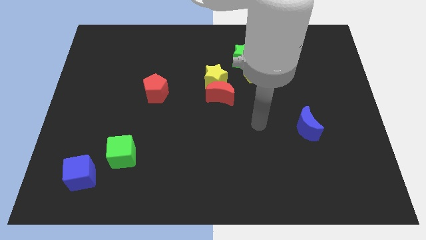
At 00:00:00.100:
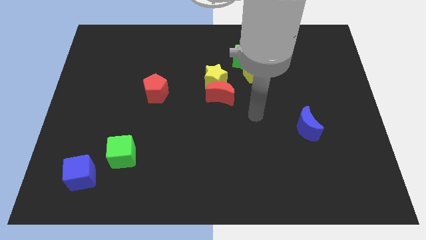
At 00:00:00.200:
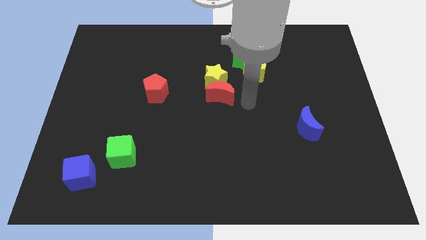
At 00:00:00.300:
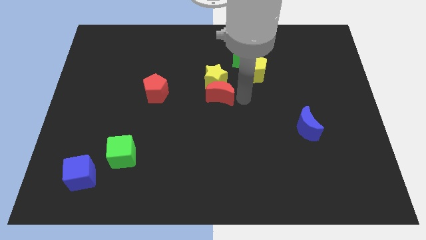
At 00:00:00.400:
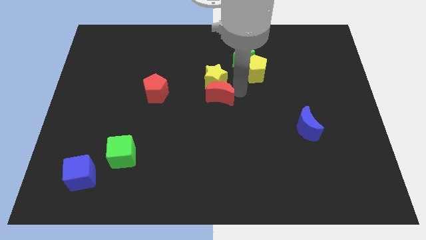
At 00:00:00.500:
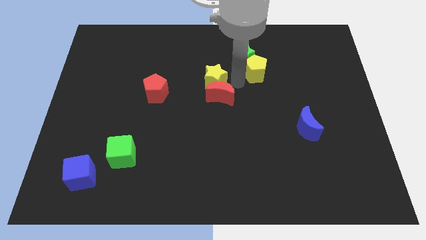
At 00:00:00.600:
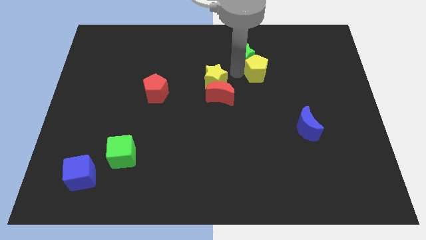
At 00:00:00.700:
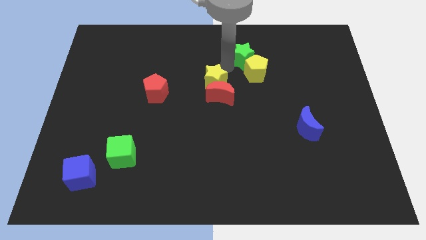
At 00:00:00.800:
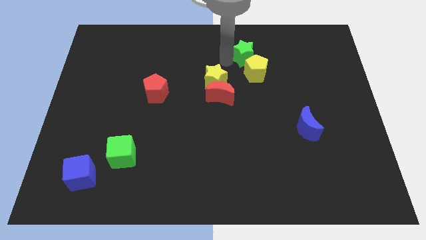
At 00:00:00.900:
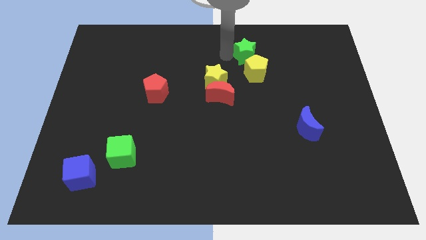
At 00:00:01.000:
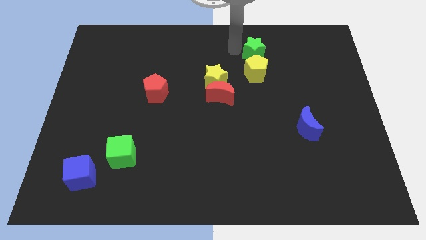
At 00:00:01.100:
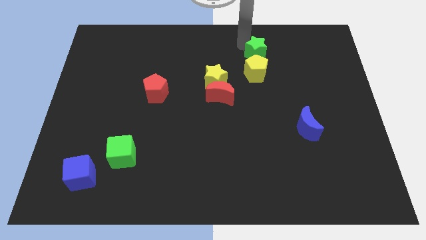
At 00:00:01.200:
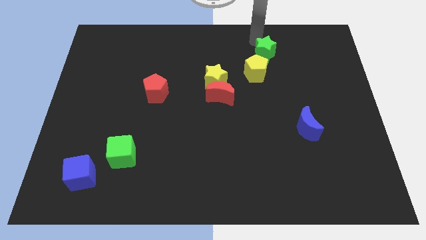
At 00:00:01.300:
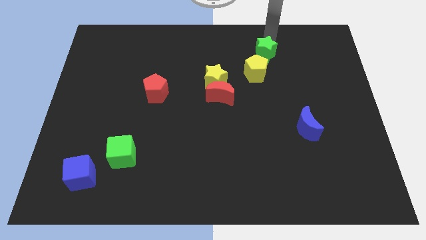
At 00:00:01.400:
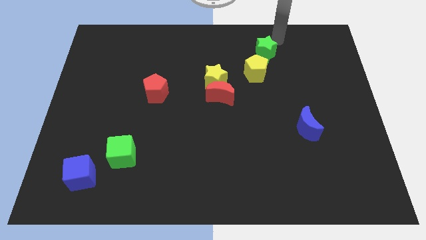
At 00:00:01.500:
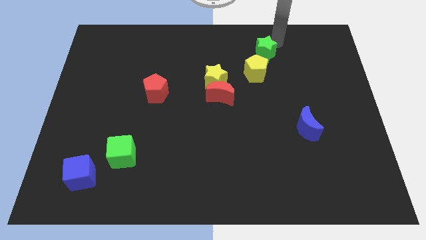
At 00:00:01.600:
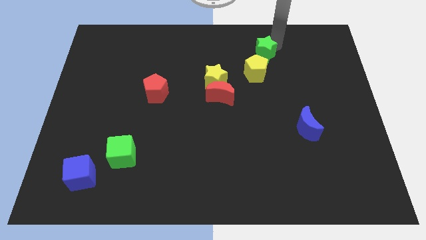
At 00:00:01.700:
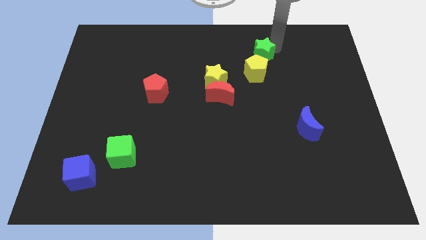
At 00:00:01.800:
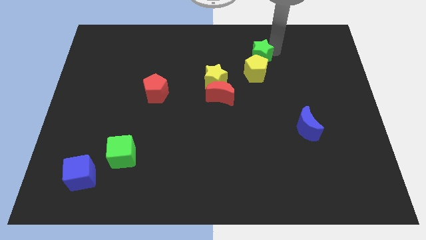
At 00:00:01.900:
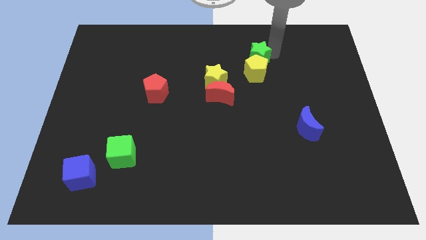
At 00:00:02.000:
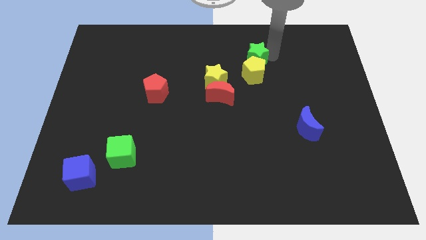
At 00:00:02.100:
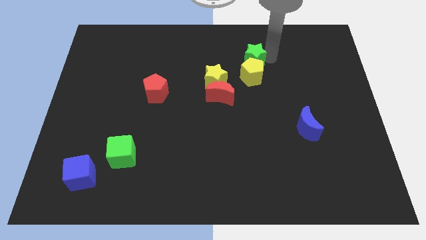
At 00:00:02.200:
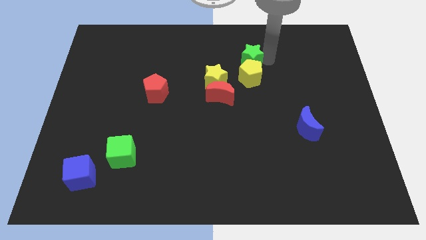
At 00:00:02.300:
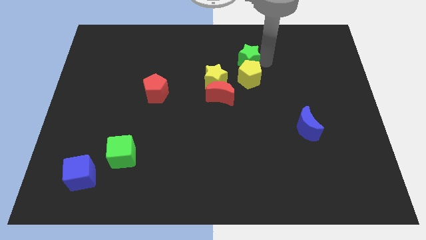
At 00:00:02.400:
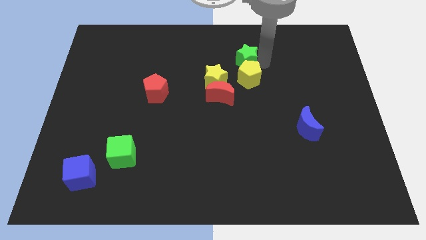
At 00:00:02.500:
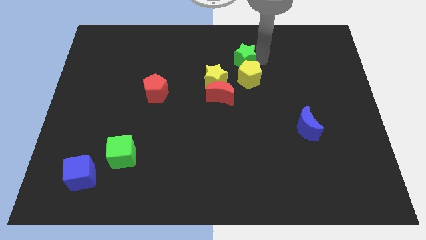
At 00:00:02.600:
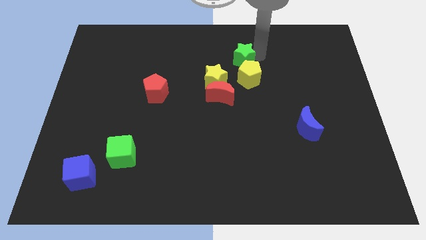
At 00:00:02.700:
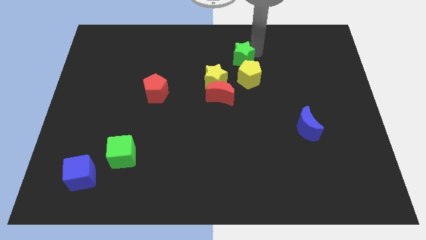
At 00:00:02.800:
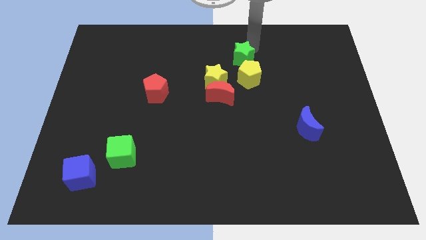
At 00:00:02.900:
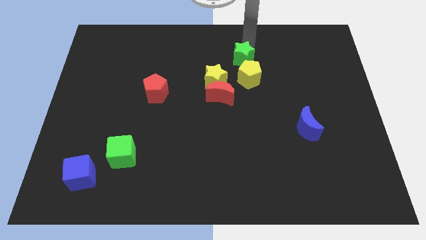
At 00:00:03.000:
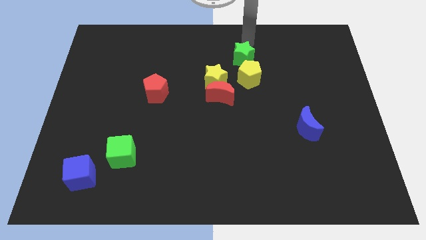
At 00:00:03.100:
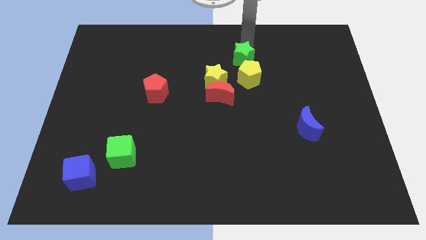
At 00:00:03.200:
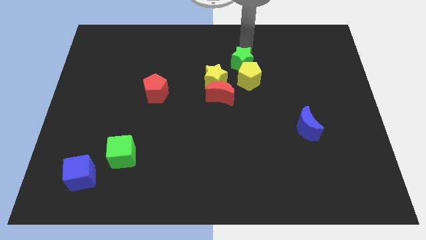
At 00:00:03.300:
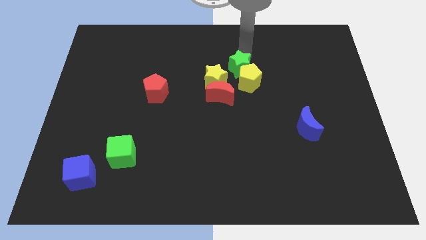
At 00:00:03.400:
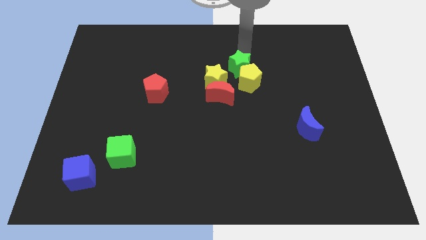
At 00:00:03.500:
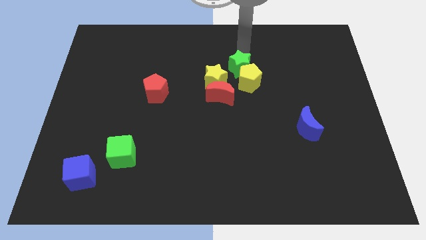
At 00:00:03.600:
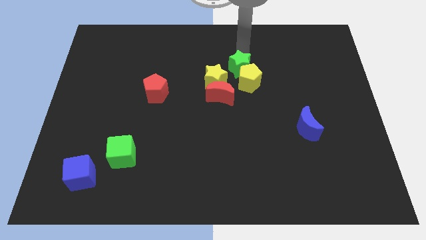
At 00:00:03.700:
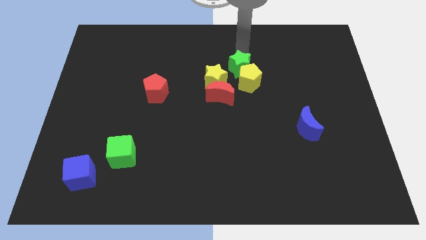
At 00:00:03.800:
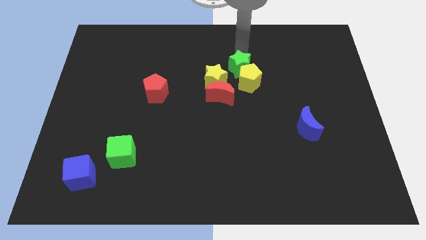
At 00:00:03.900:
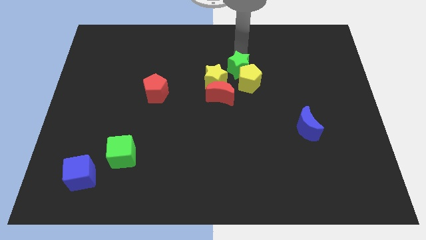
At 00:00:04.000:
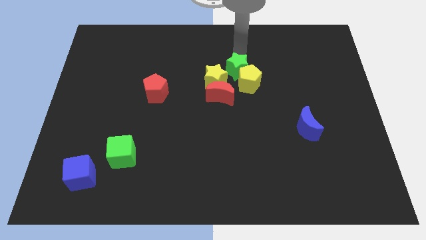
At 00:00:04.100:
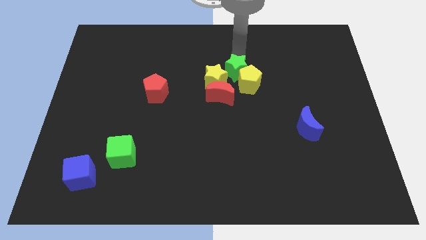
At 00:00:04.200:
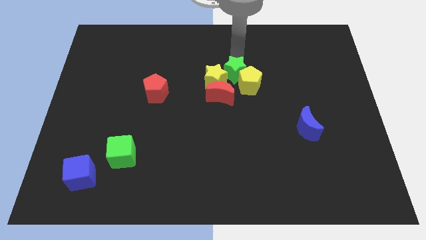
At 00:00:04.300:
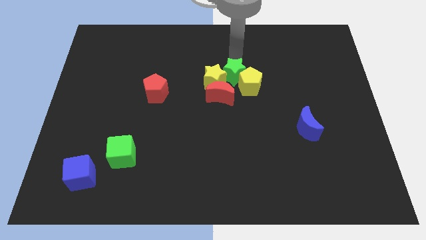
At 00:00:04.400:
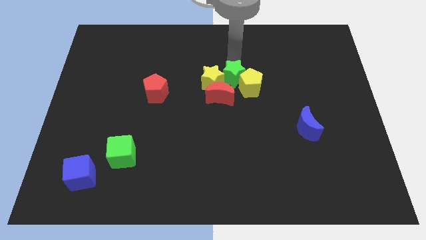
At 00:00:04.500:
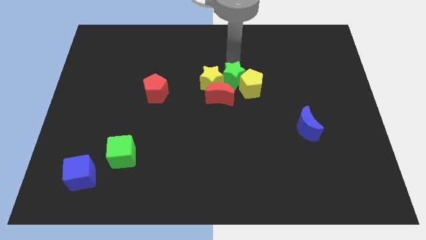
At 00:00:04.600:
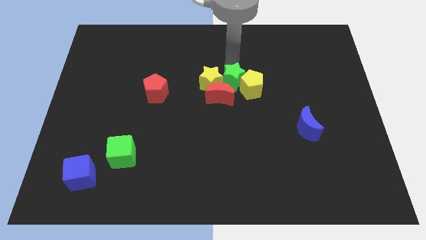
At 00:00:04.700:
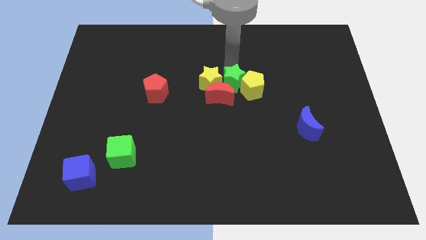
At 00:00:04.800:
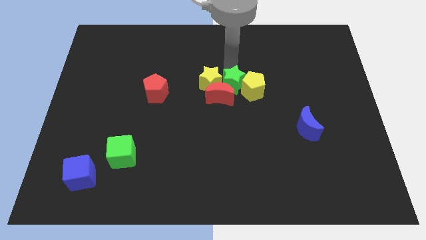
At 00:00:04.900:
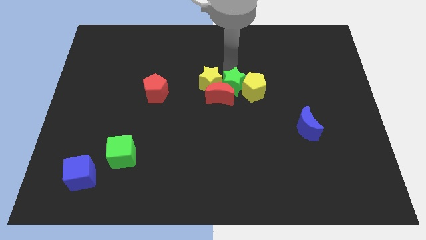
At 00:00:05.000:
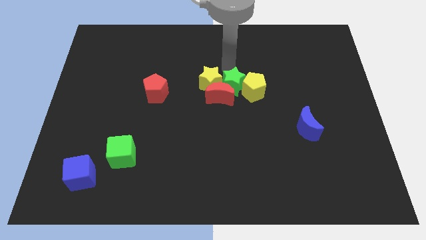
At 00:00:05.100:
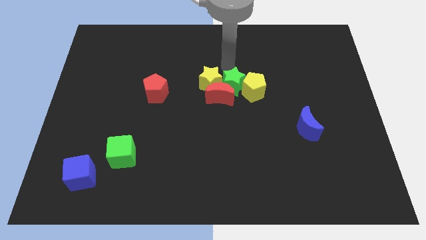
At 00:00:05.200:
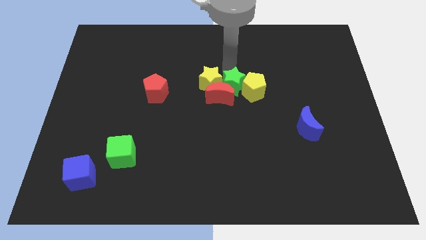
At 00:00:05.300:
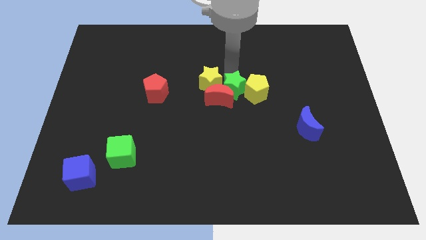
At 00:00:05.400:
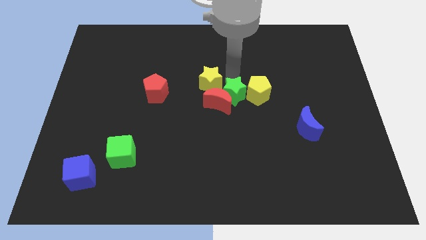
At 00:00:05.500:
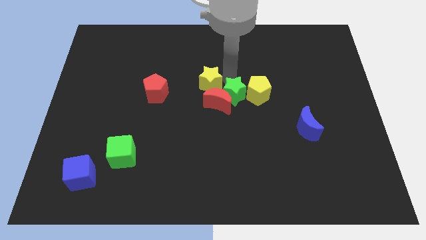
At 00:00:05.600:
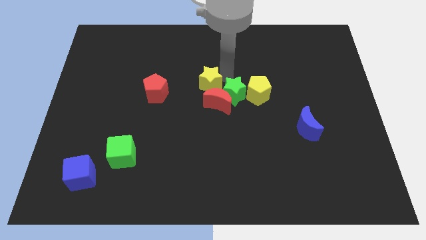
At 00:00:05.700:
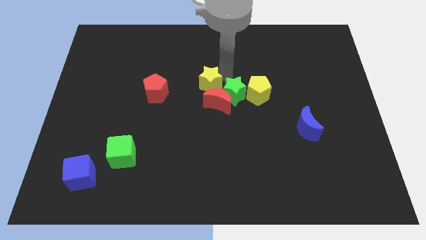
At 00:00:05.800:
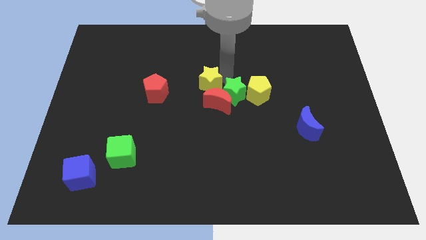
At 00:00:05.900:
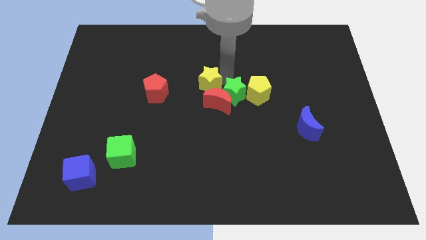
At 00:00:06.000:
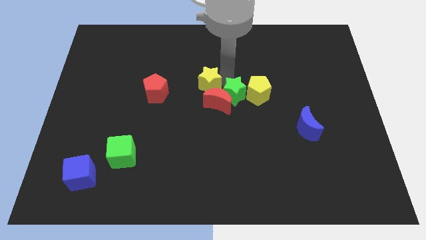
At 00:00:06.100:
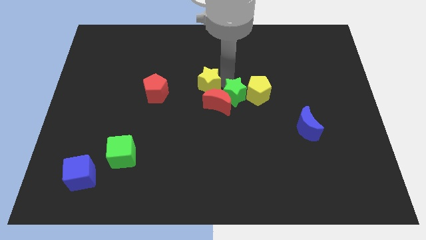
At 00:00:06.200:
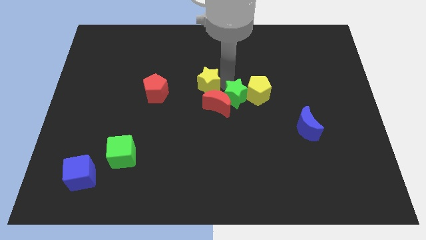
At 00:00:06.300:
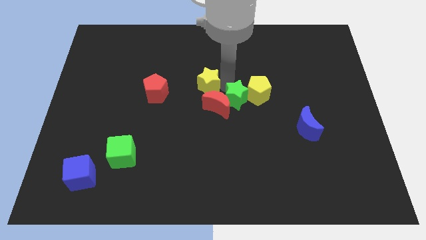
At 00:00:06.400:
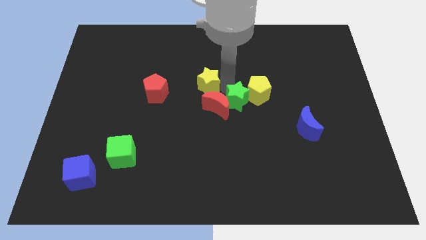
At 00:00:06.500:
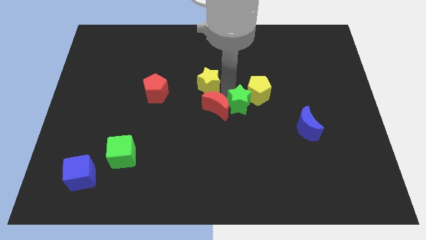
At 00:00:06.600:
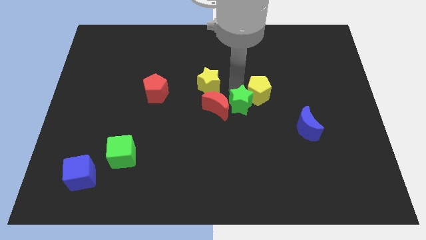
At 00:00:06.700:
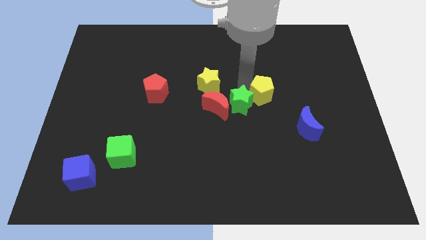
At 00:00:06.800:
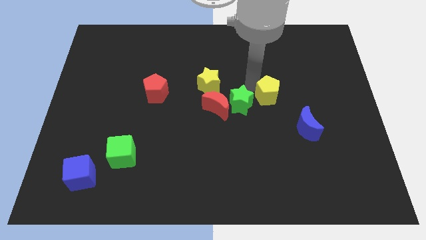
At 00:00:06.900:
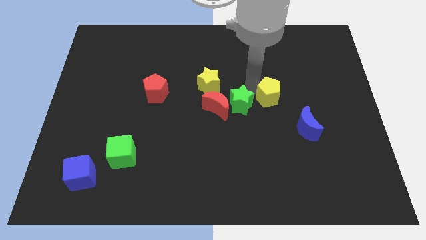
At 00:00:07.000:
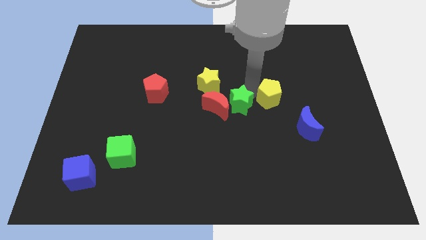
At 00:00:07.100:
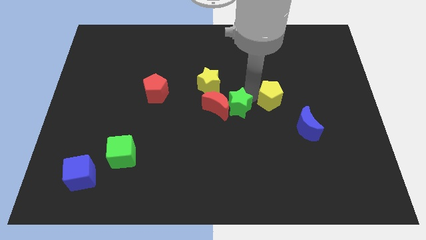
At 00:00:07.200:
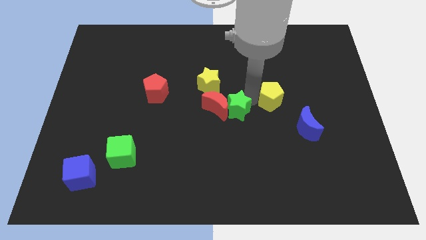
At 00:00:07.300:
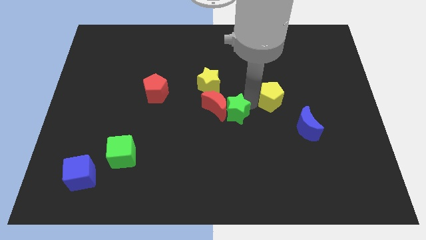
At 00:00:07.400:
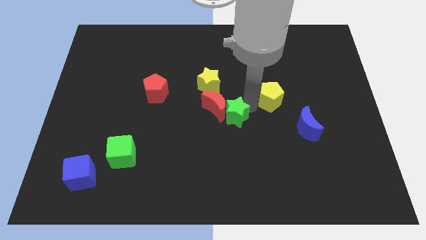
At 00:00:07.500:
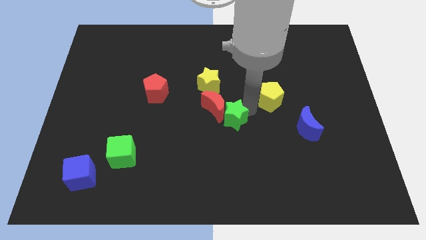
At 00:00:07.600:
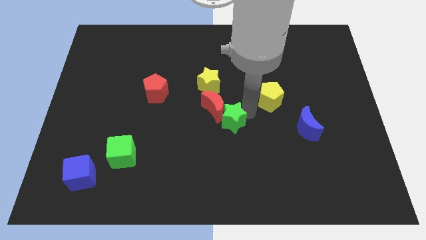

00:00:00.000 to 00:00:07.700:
put the green star below the red moon
